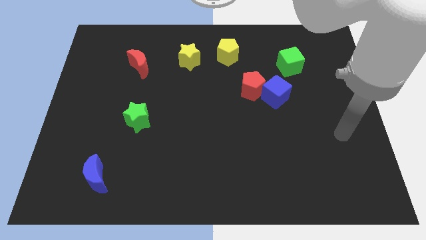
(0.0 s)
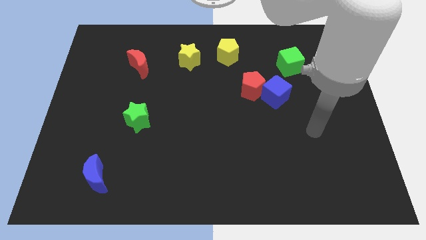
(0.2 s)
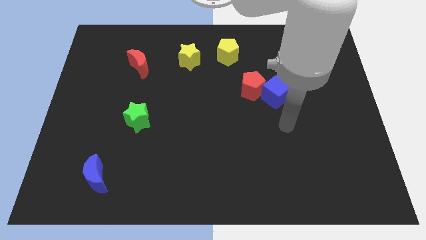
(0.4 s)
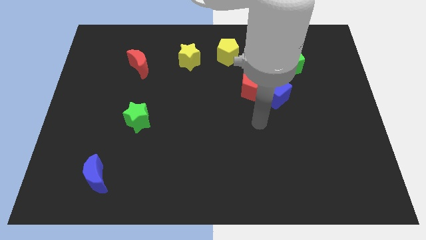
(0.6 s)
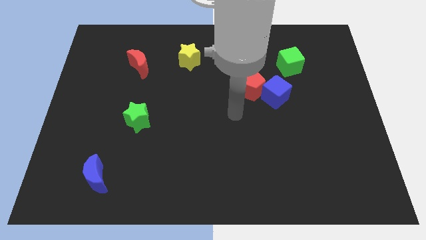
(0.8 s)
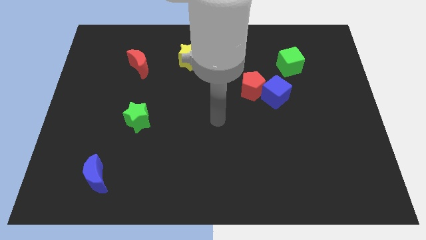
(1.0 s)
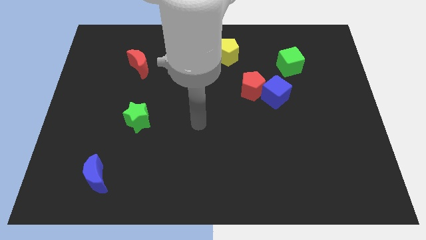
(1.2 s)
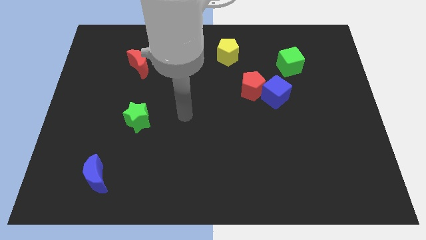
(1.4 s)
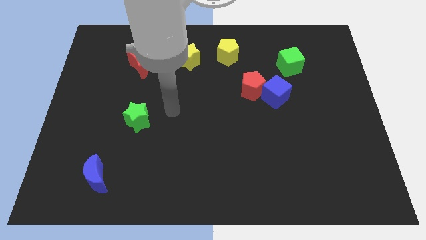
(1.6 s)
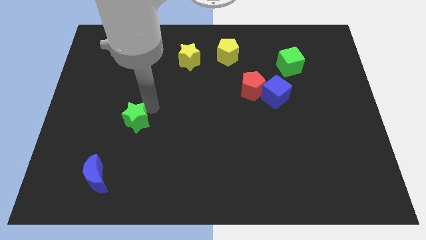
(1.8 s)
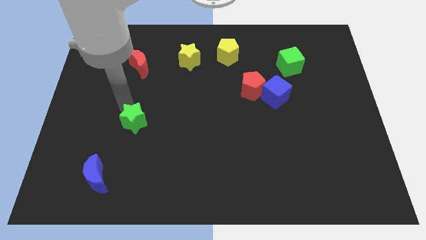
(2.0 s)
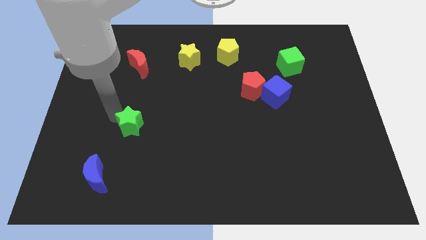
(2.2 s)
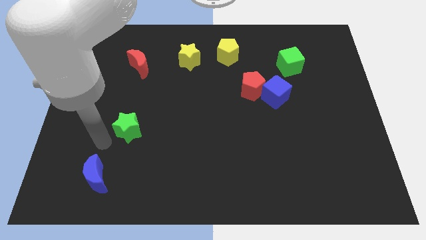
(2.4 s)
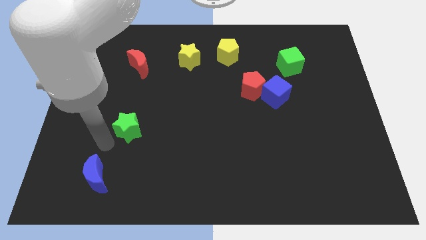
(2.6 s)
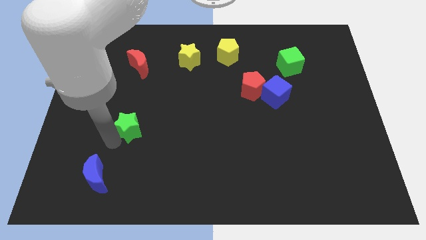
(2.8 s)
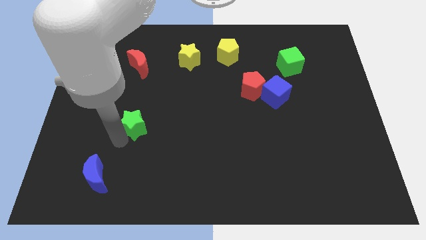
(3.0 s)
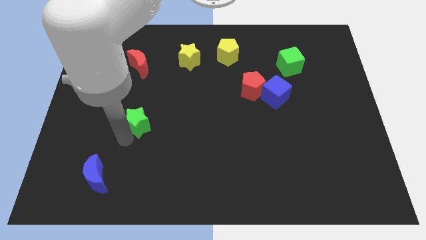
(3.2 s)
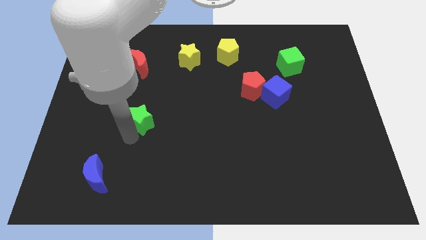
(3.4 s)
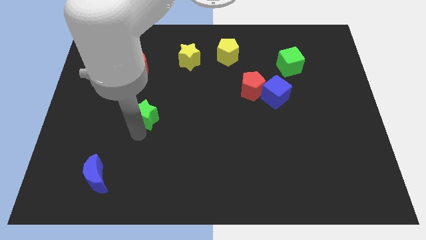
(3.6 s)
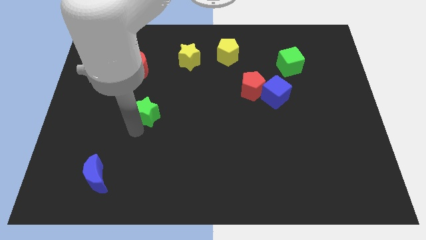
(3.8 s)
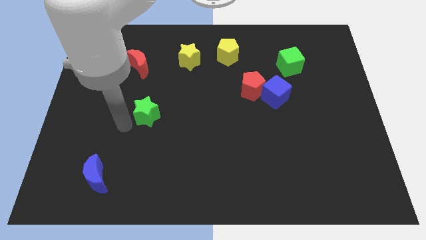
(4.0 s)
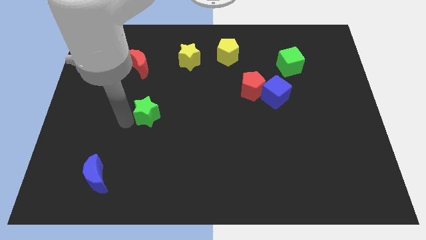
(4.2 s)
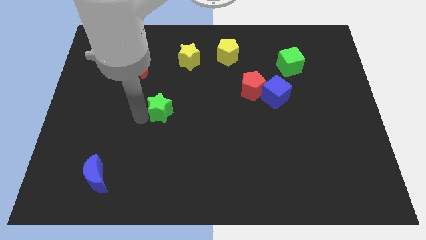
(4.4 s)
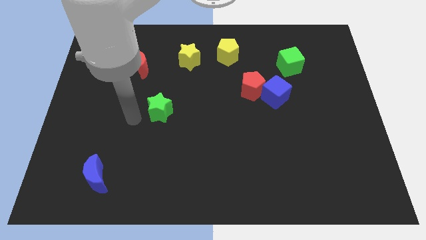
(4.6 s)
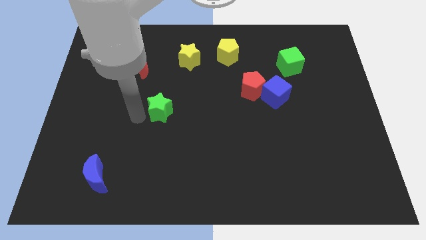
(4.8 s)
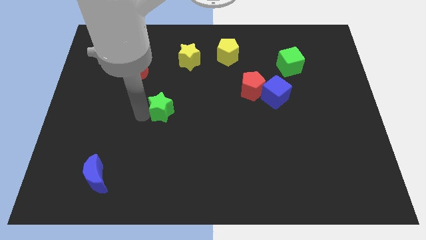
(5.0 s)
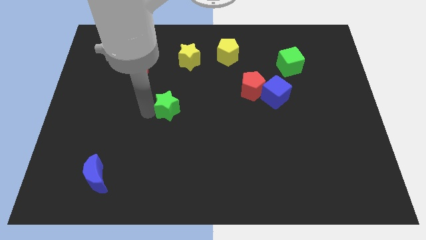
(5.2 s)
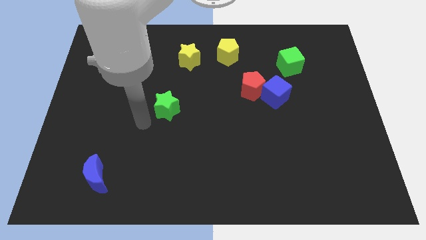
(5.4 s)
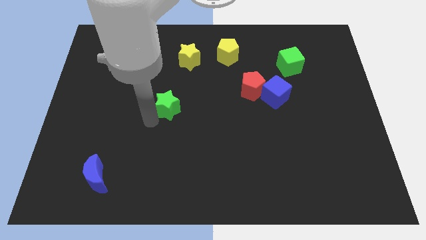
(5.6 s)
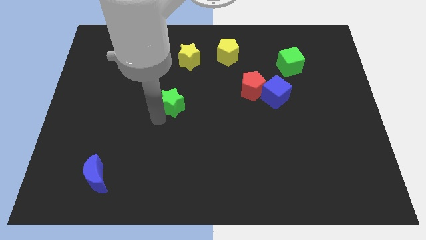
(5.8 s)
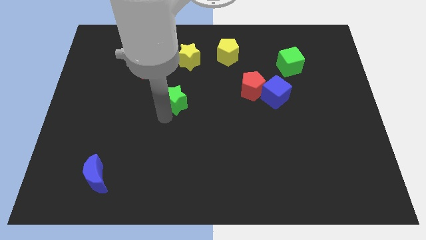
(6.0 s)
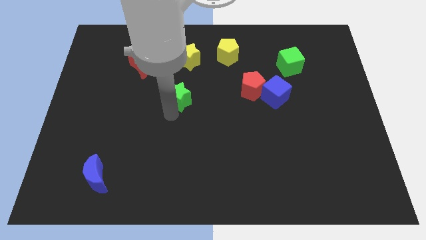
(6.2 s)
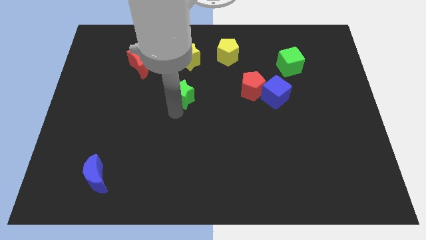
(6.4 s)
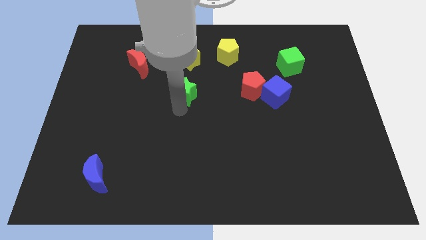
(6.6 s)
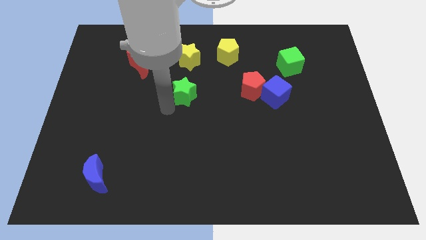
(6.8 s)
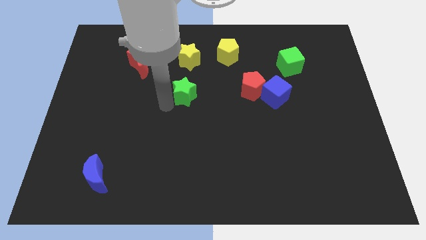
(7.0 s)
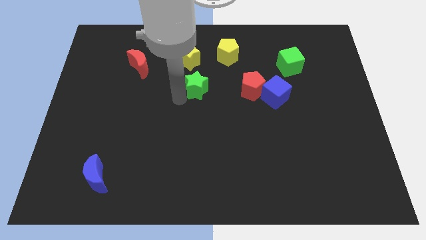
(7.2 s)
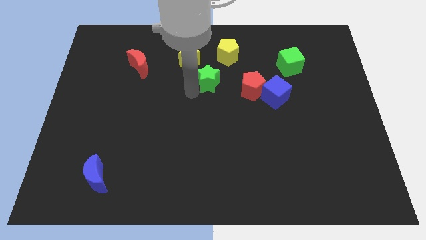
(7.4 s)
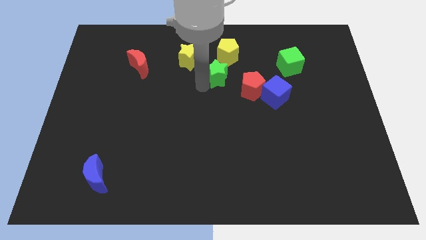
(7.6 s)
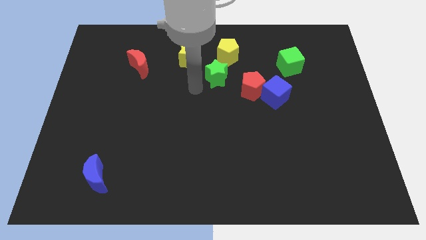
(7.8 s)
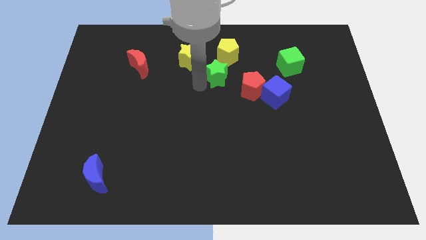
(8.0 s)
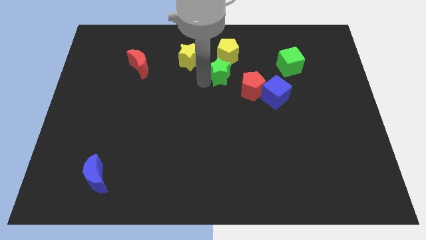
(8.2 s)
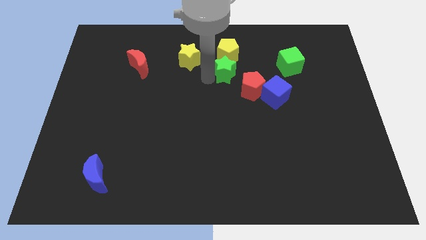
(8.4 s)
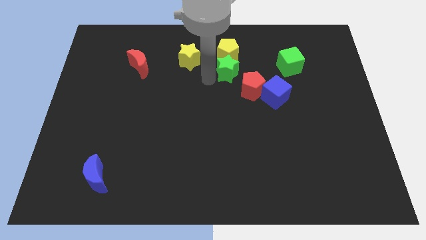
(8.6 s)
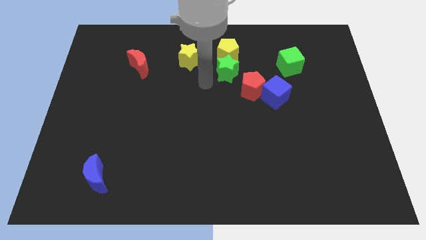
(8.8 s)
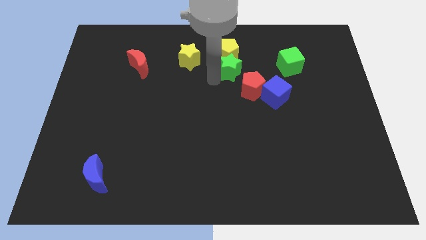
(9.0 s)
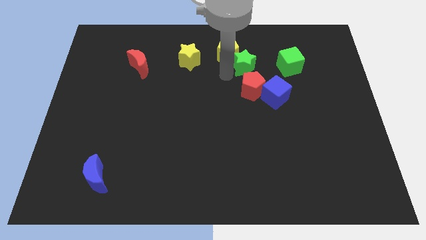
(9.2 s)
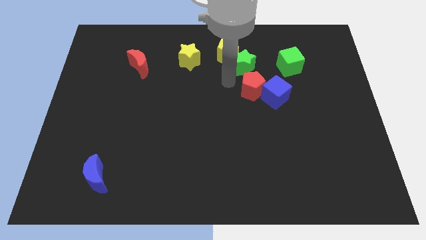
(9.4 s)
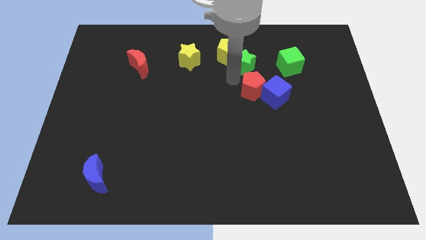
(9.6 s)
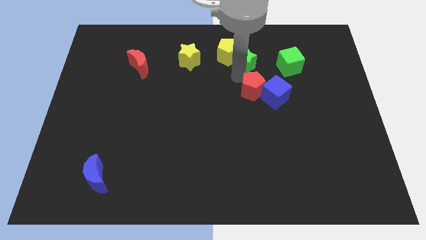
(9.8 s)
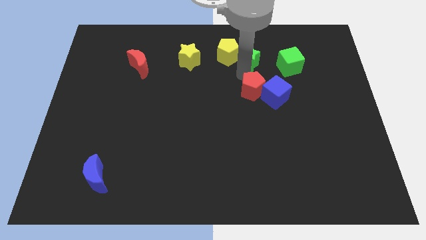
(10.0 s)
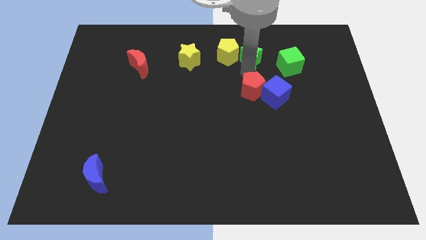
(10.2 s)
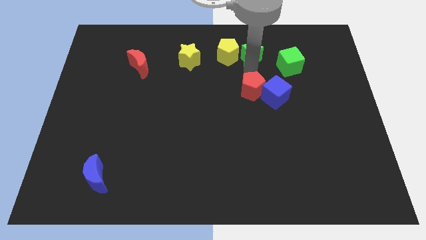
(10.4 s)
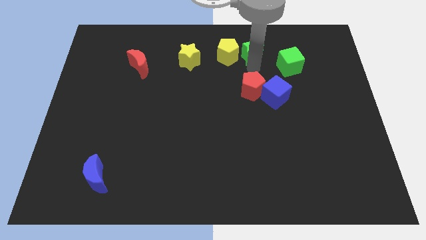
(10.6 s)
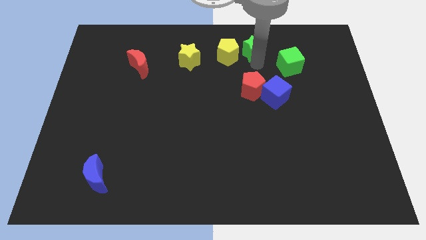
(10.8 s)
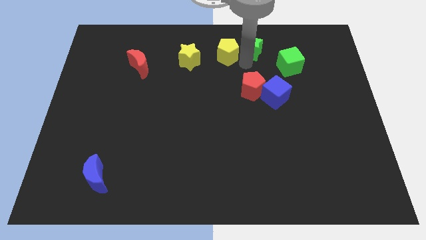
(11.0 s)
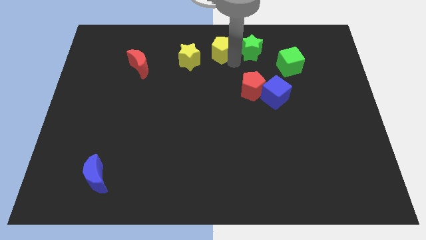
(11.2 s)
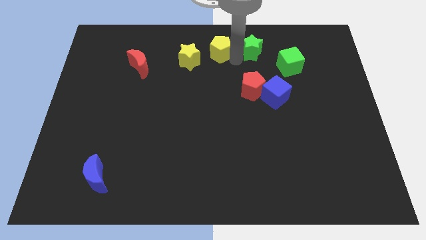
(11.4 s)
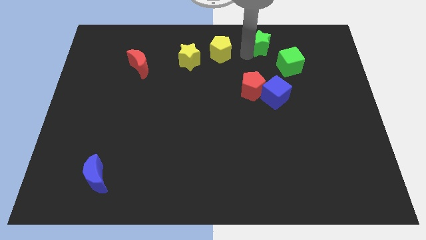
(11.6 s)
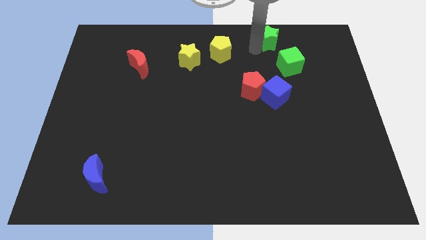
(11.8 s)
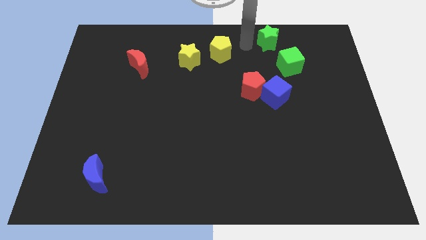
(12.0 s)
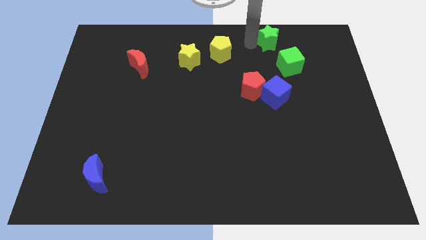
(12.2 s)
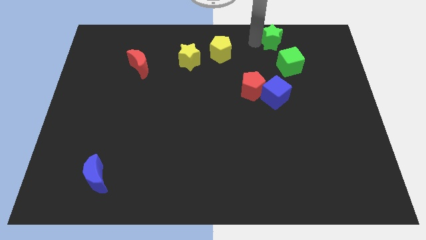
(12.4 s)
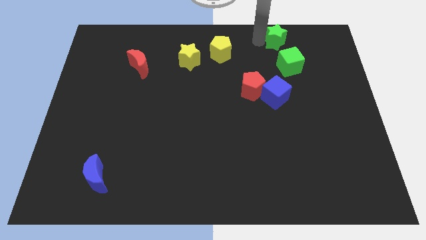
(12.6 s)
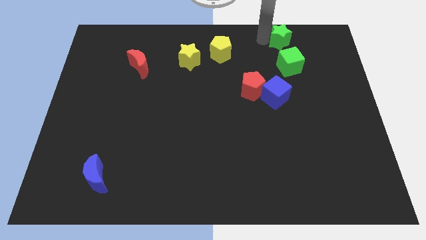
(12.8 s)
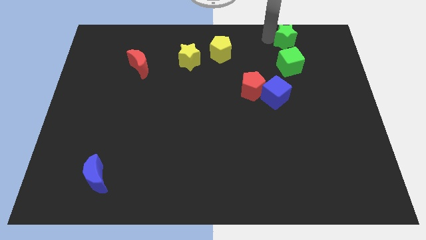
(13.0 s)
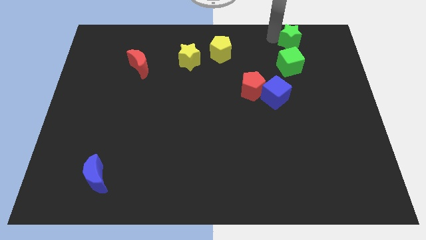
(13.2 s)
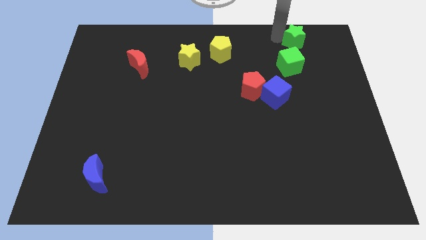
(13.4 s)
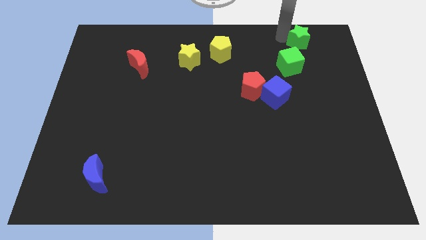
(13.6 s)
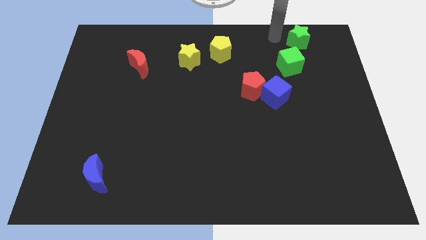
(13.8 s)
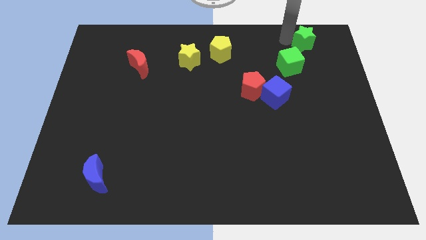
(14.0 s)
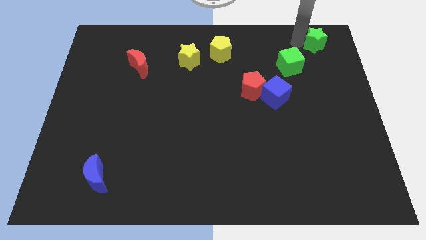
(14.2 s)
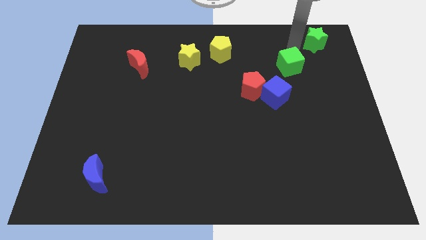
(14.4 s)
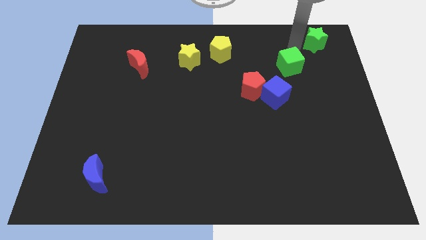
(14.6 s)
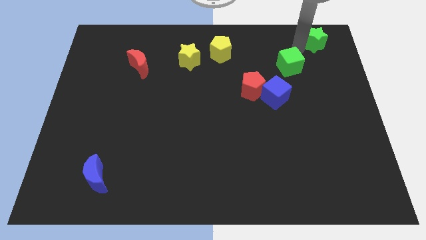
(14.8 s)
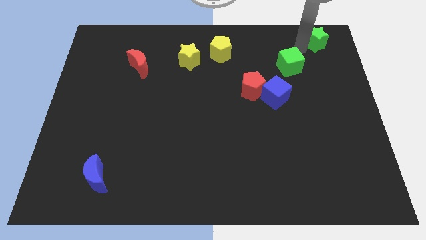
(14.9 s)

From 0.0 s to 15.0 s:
put the green star to the top right of the board
